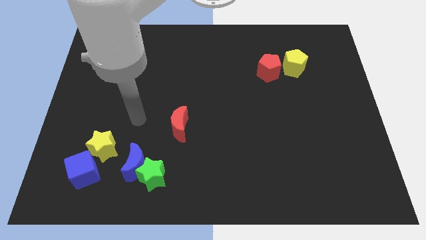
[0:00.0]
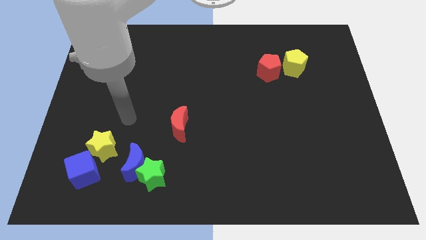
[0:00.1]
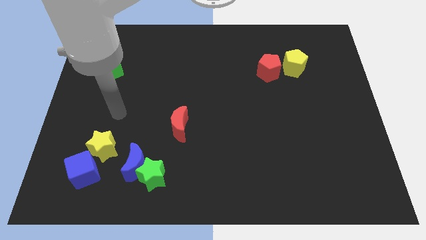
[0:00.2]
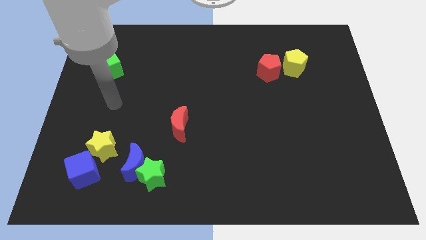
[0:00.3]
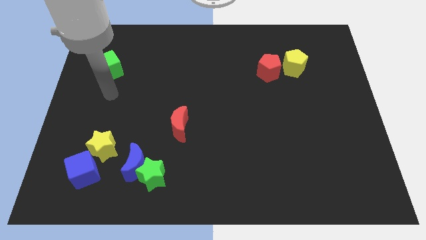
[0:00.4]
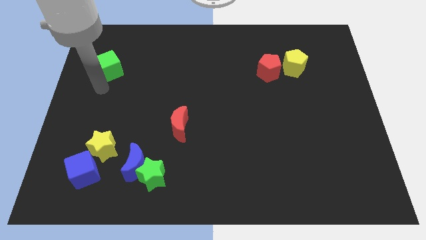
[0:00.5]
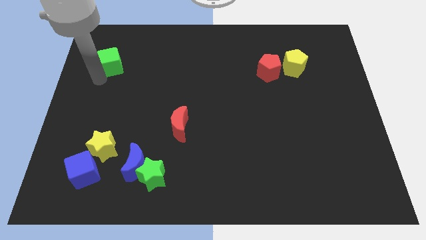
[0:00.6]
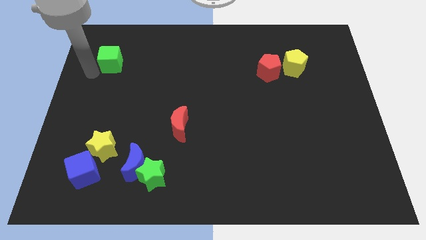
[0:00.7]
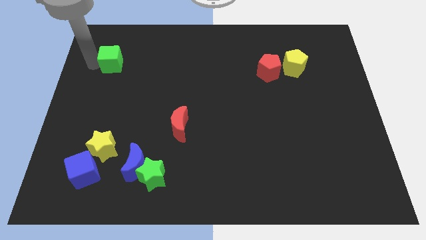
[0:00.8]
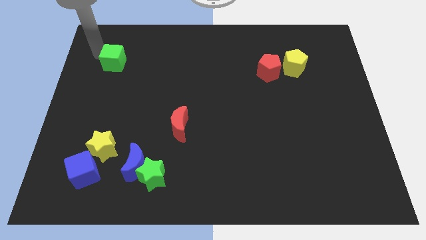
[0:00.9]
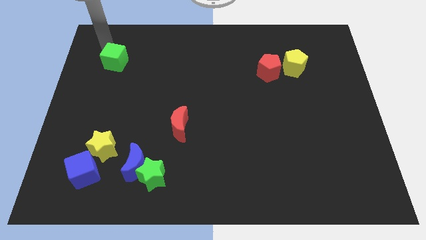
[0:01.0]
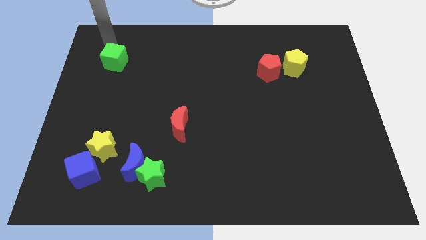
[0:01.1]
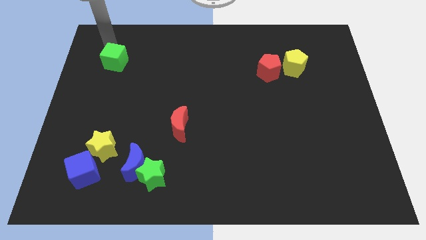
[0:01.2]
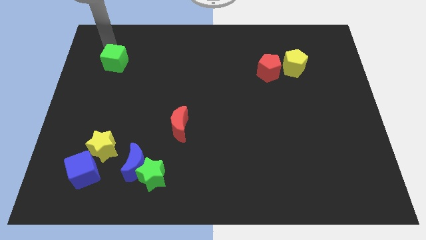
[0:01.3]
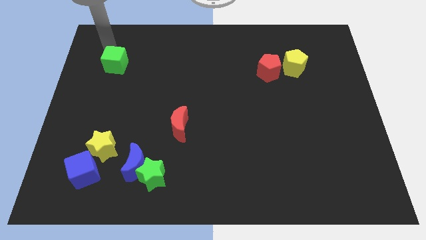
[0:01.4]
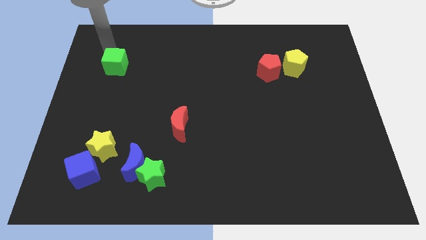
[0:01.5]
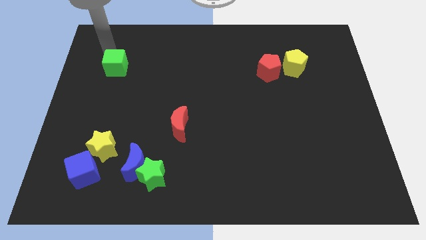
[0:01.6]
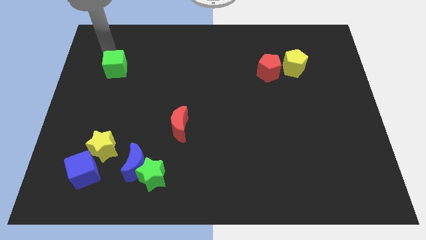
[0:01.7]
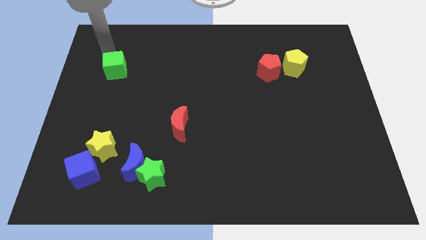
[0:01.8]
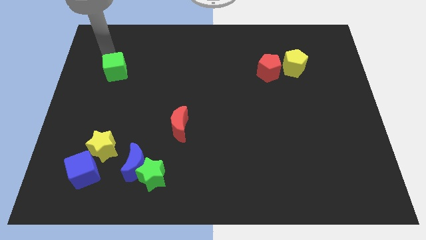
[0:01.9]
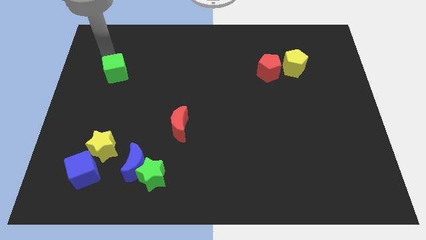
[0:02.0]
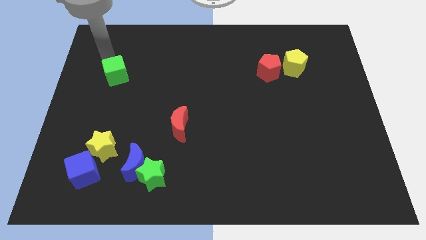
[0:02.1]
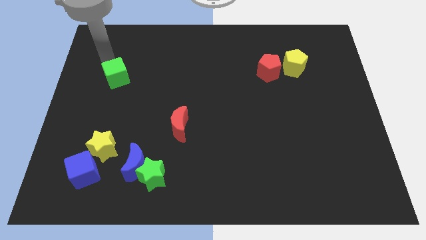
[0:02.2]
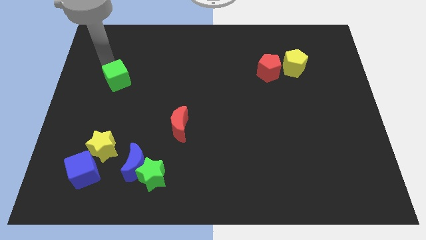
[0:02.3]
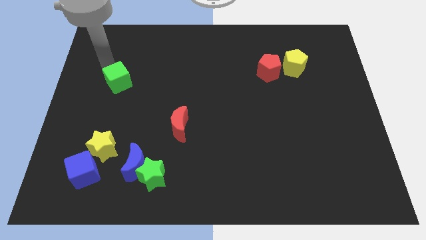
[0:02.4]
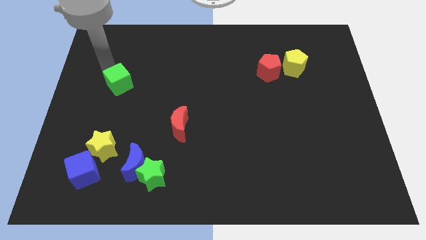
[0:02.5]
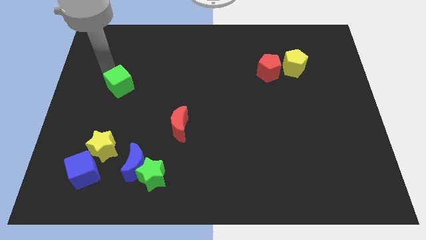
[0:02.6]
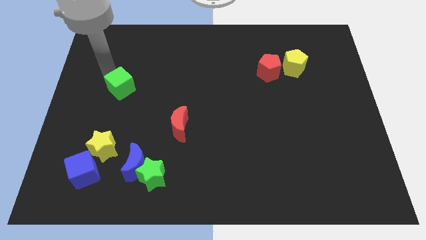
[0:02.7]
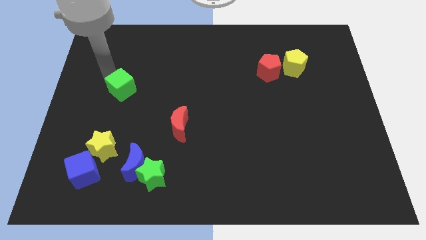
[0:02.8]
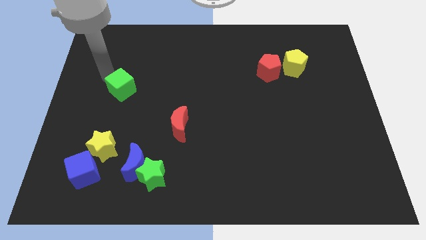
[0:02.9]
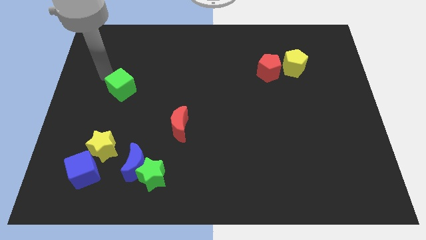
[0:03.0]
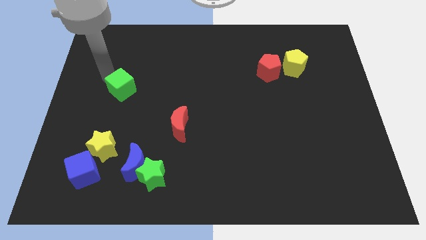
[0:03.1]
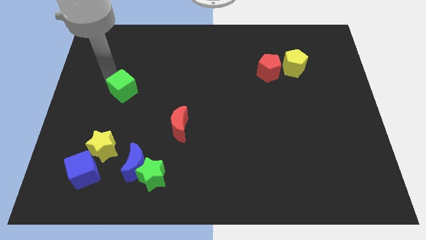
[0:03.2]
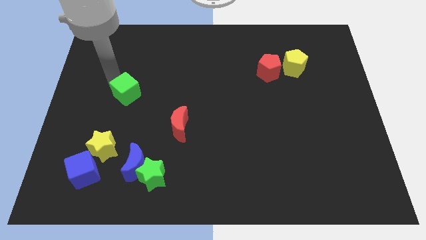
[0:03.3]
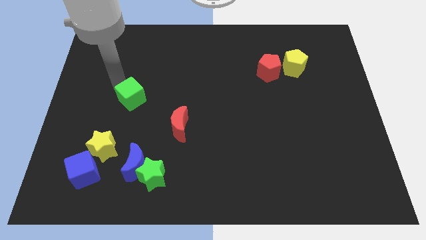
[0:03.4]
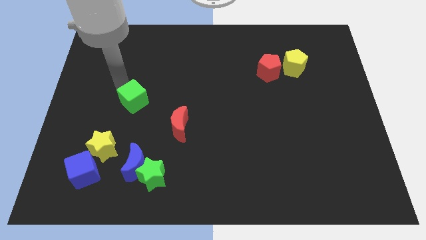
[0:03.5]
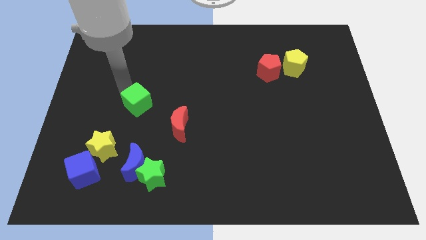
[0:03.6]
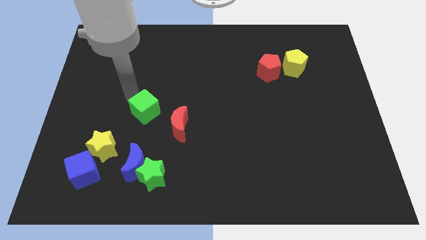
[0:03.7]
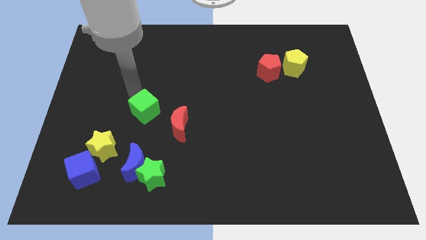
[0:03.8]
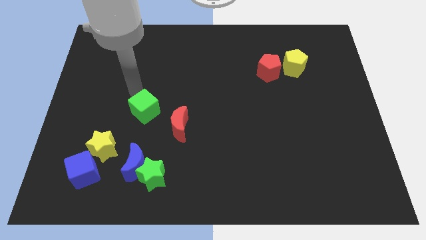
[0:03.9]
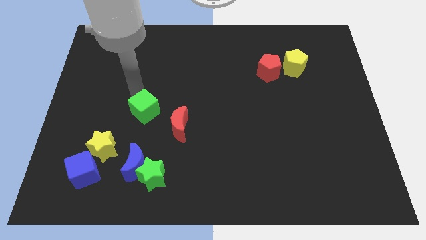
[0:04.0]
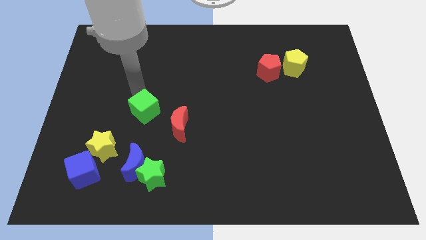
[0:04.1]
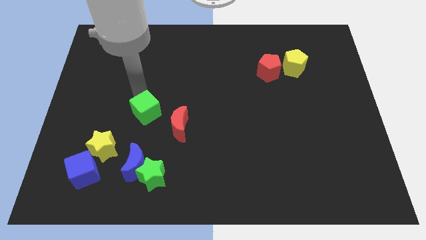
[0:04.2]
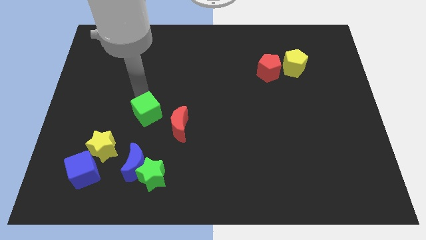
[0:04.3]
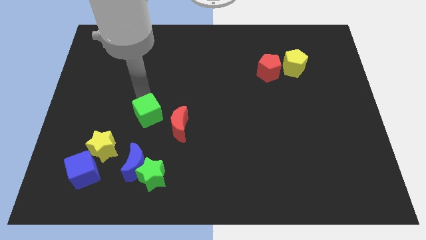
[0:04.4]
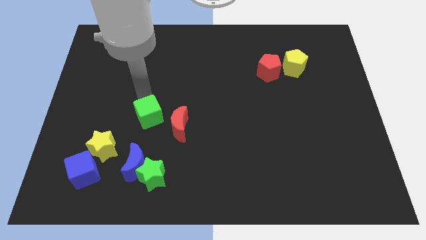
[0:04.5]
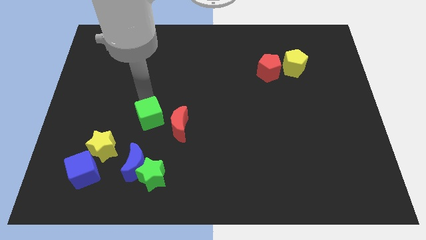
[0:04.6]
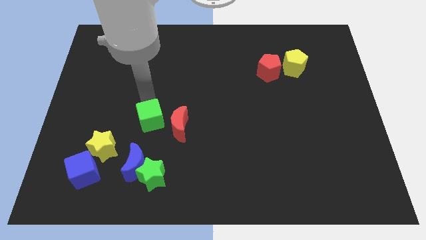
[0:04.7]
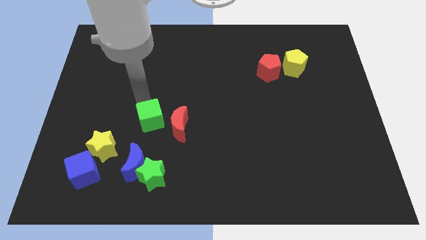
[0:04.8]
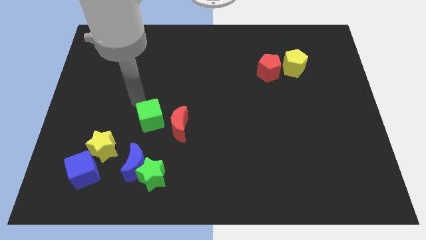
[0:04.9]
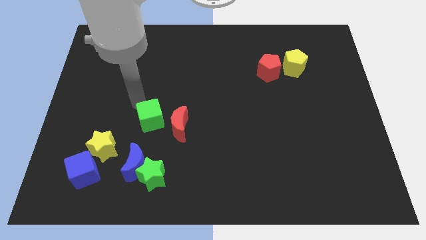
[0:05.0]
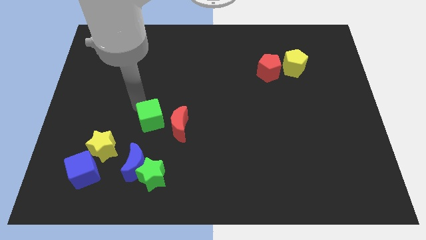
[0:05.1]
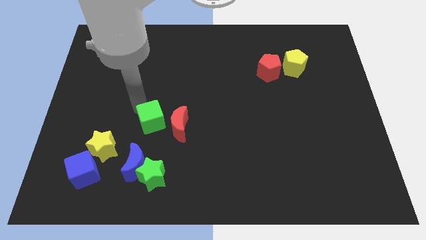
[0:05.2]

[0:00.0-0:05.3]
slide the green cube down and to the right

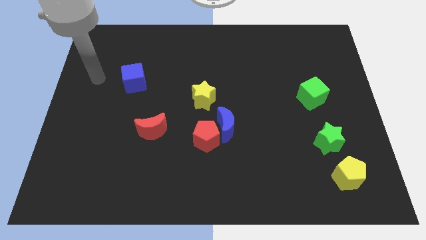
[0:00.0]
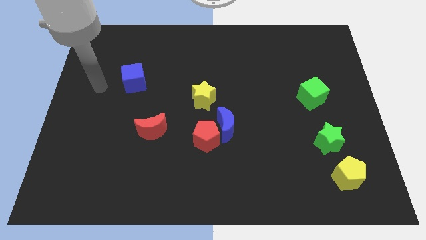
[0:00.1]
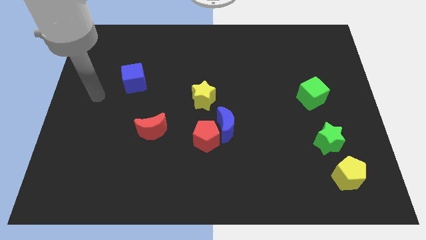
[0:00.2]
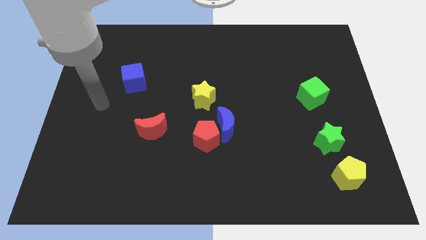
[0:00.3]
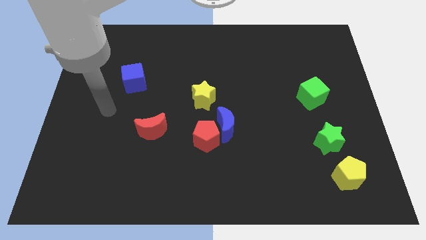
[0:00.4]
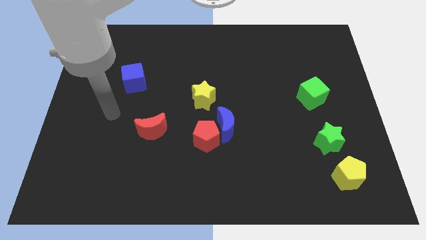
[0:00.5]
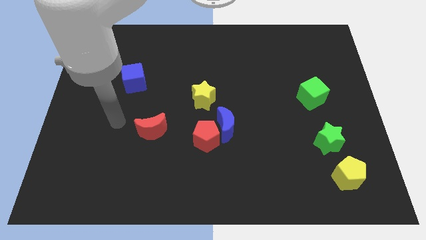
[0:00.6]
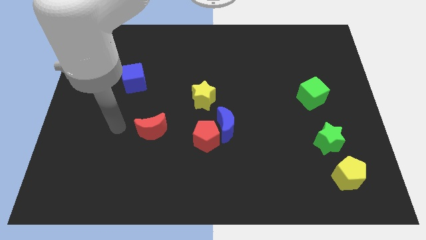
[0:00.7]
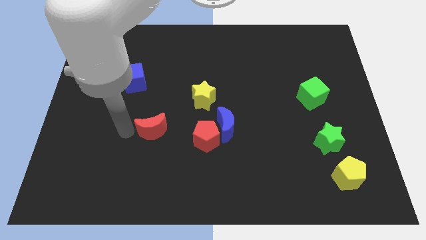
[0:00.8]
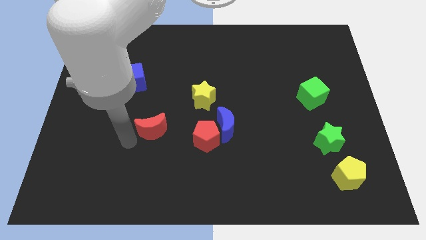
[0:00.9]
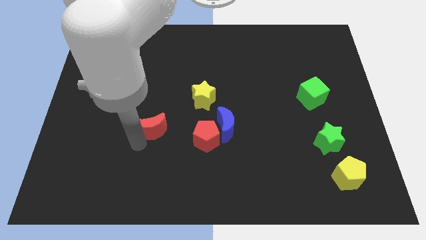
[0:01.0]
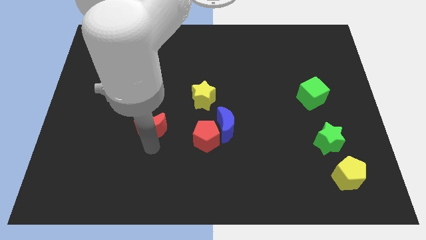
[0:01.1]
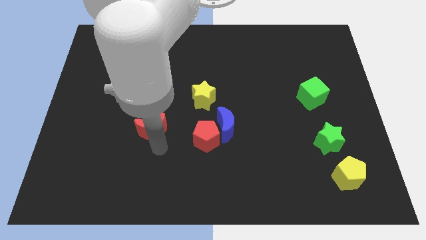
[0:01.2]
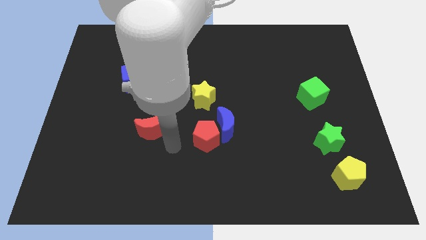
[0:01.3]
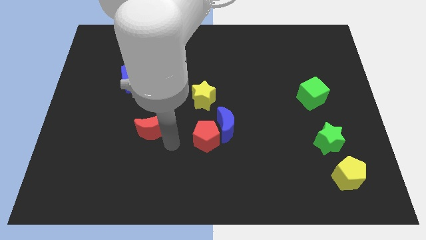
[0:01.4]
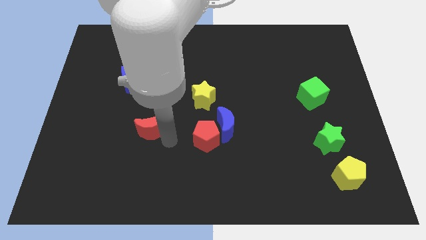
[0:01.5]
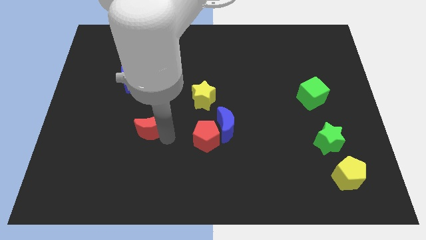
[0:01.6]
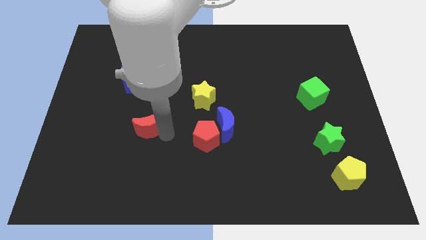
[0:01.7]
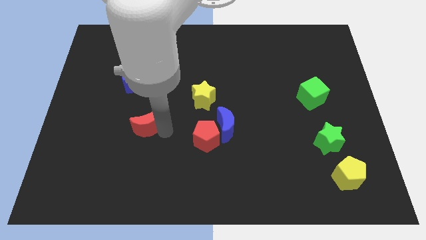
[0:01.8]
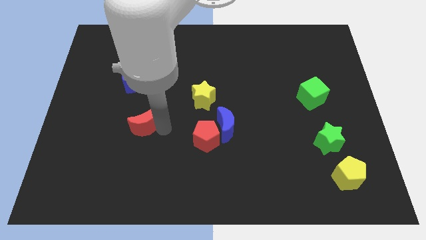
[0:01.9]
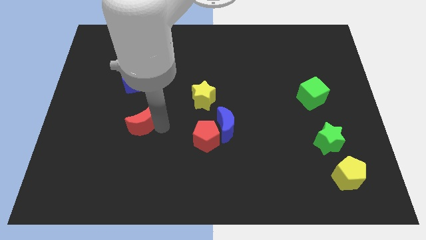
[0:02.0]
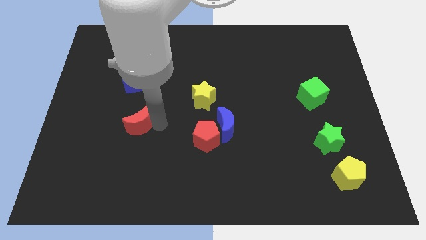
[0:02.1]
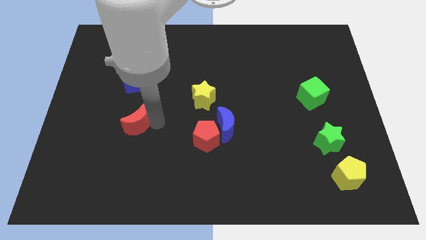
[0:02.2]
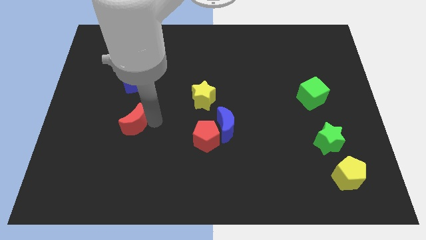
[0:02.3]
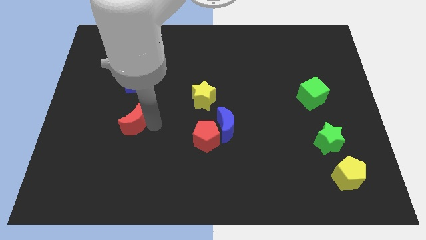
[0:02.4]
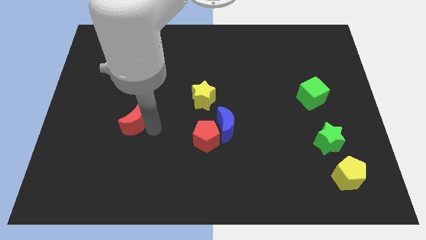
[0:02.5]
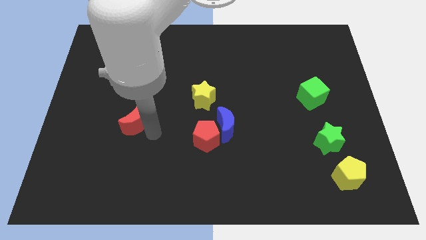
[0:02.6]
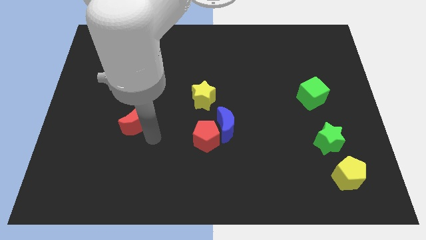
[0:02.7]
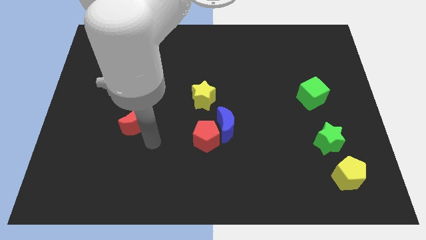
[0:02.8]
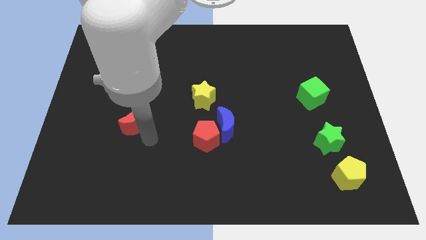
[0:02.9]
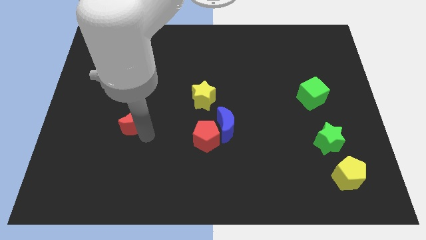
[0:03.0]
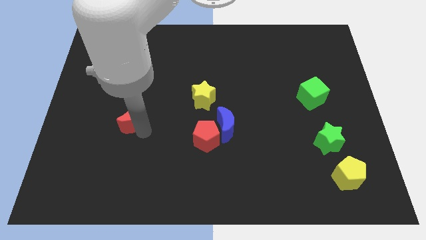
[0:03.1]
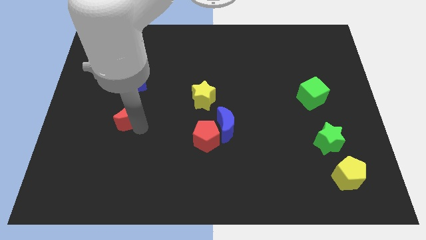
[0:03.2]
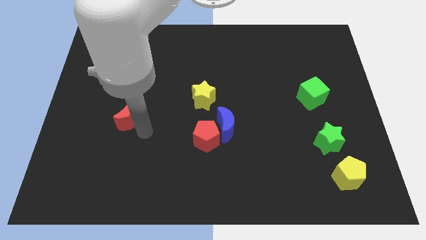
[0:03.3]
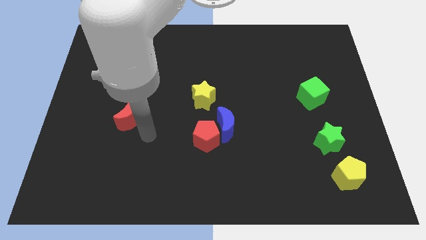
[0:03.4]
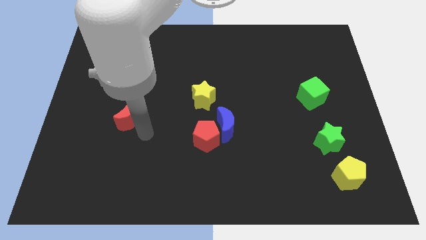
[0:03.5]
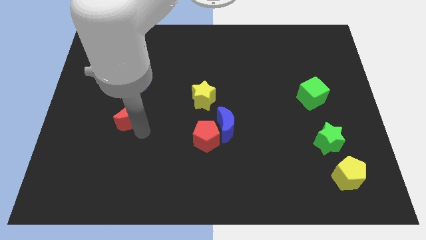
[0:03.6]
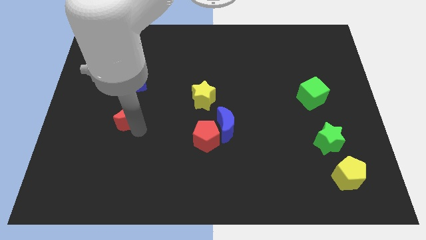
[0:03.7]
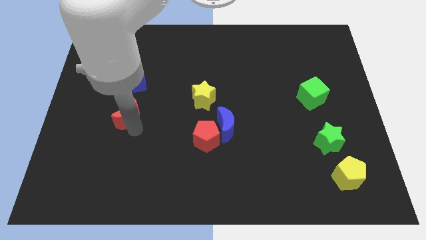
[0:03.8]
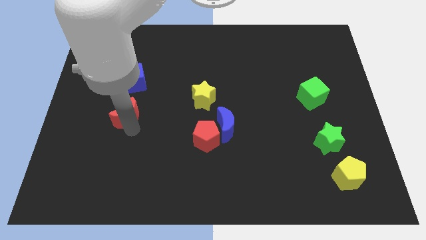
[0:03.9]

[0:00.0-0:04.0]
slightly push the red moon up and left
